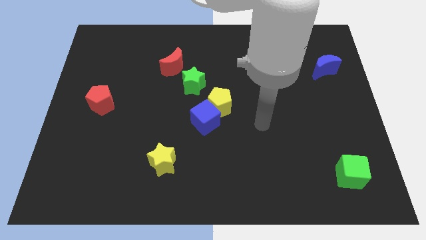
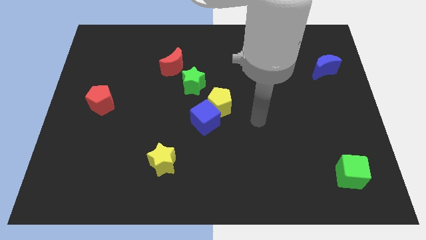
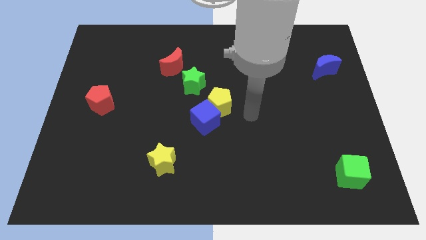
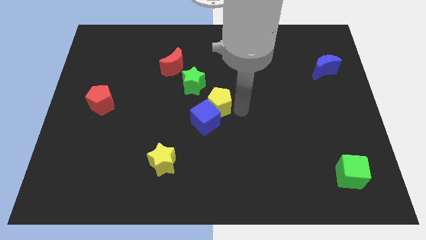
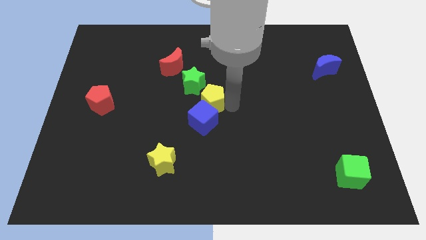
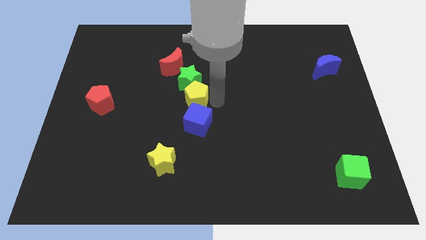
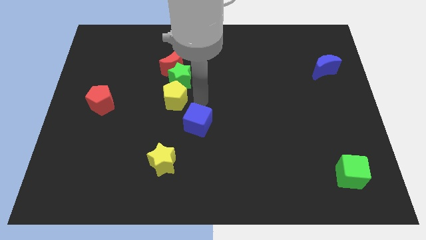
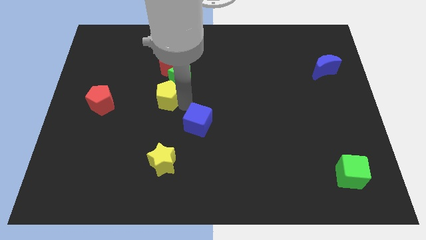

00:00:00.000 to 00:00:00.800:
separate the blue cube from the yellow pentagon

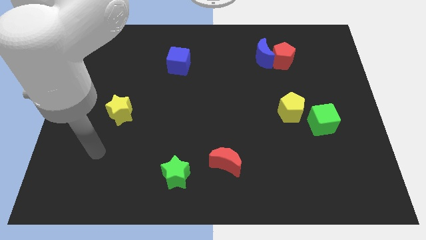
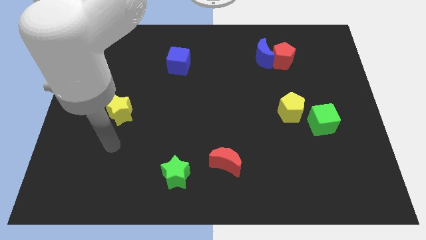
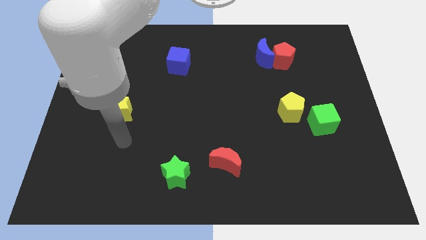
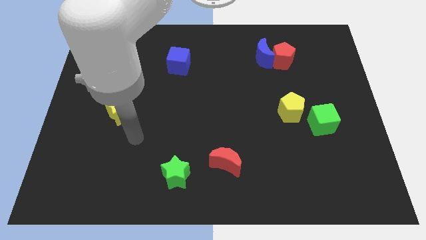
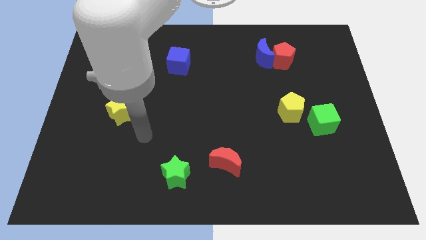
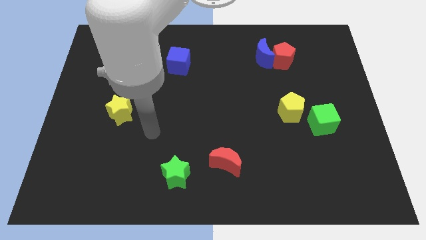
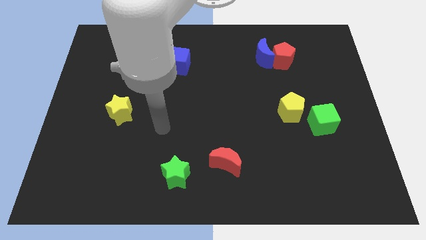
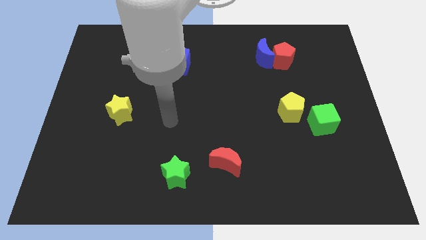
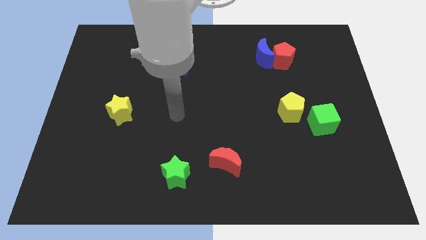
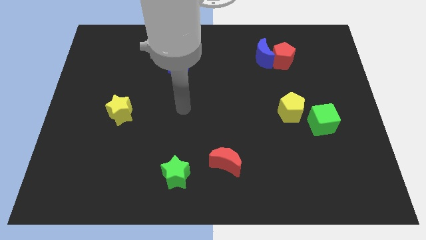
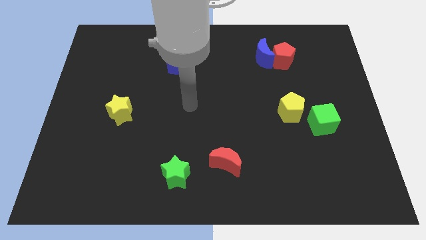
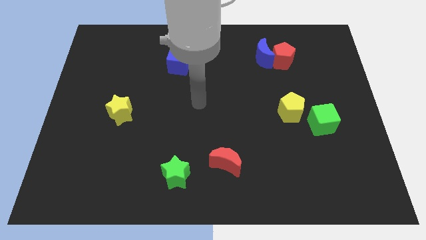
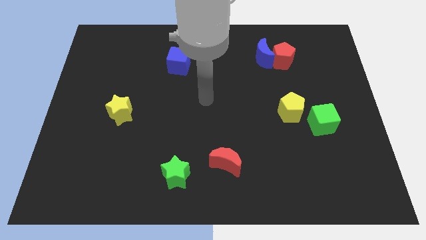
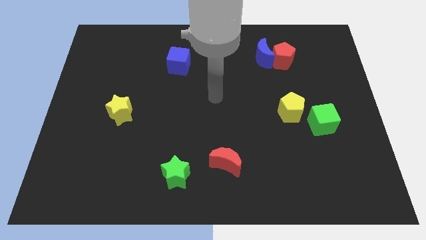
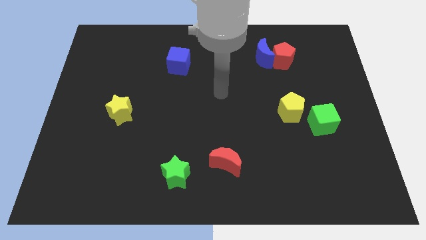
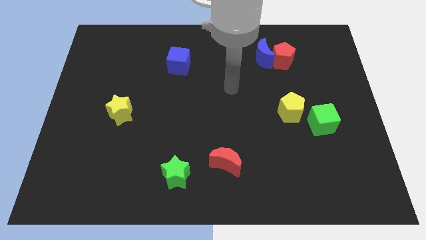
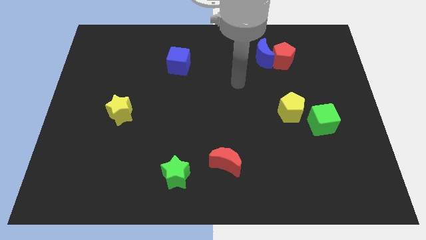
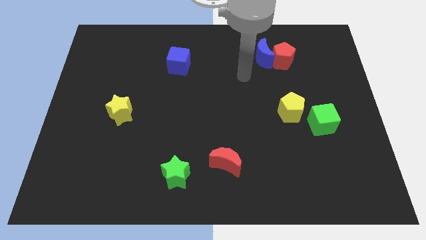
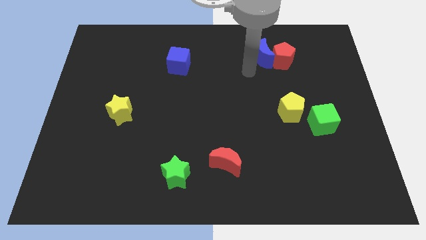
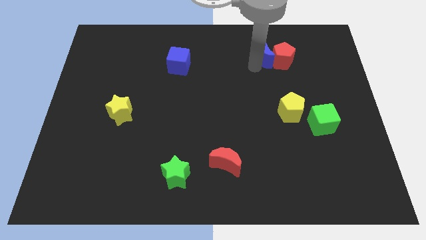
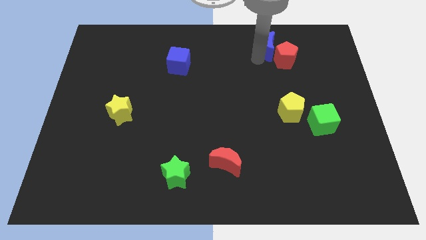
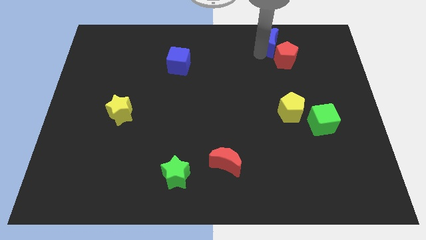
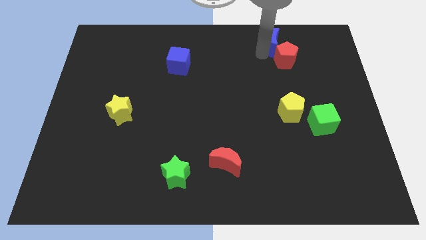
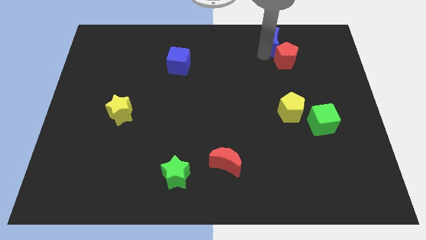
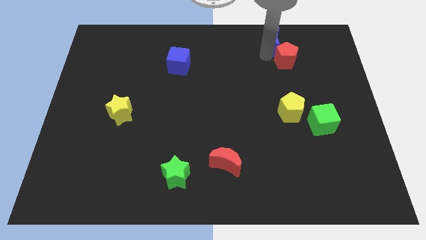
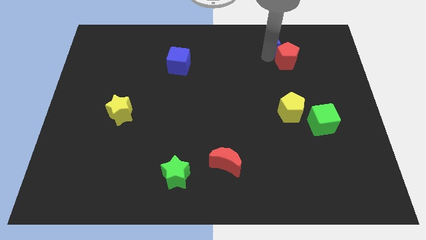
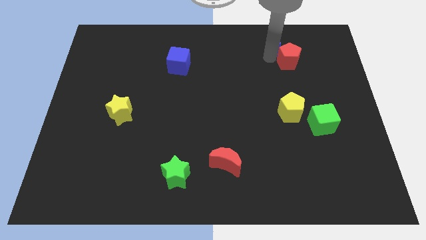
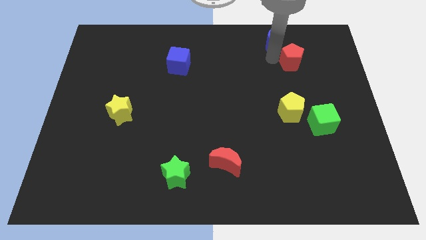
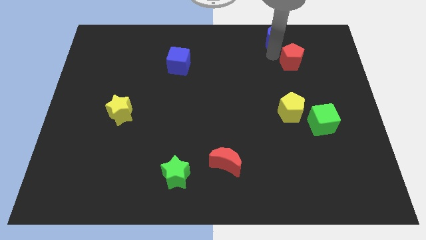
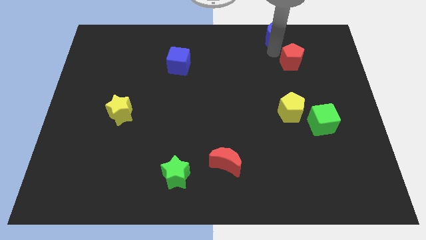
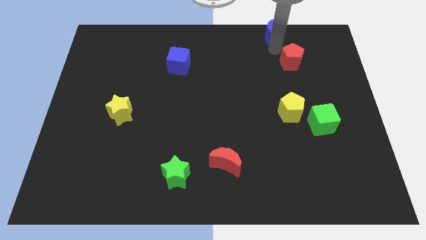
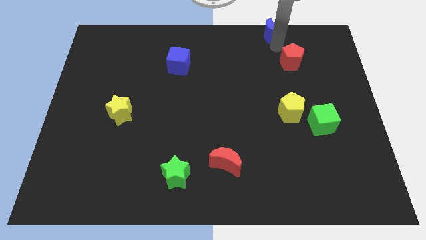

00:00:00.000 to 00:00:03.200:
move the red pentagon away from the blue moon

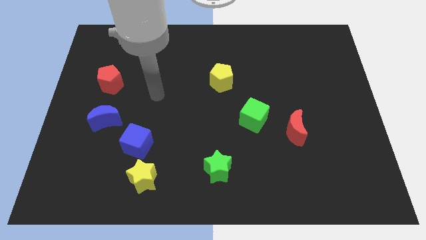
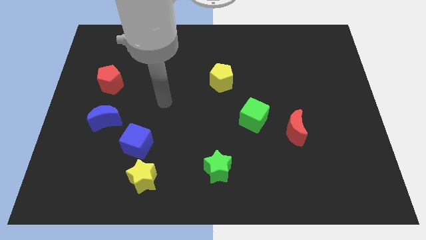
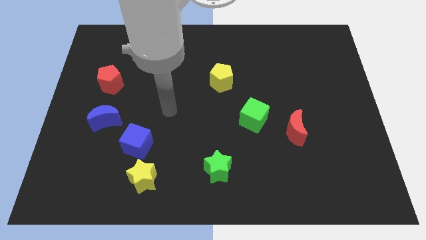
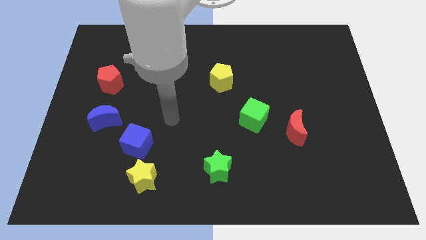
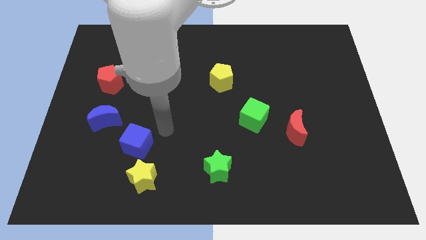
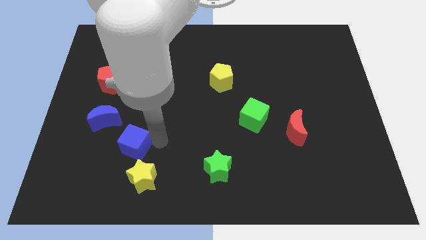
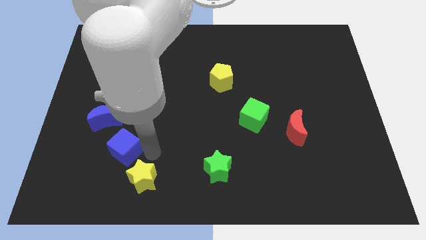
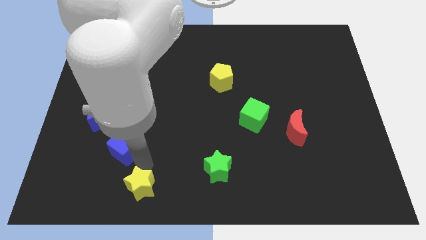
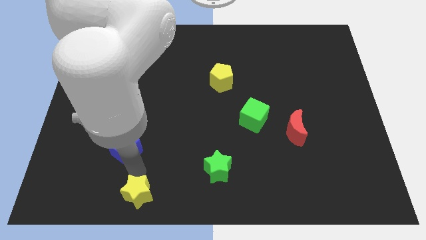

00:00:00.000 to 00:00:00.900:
separate the blue cube from the yellow star

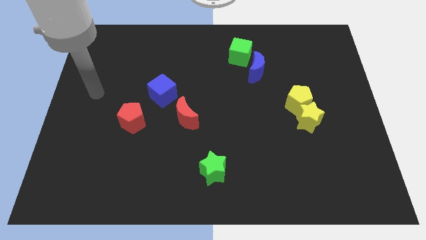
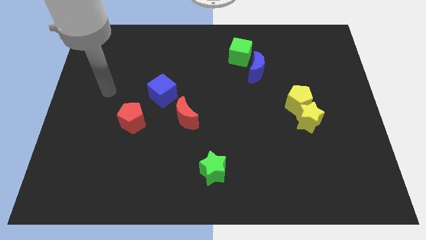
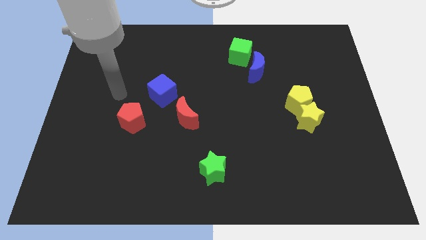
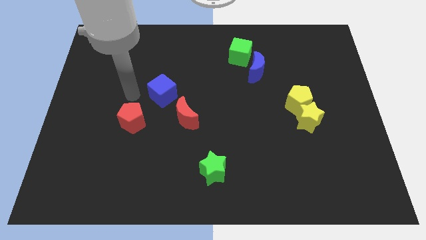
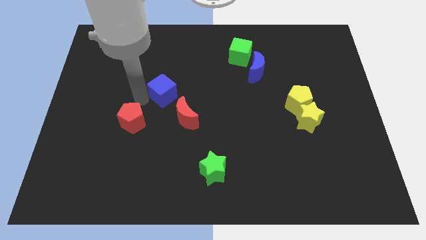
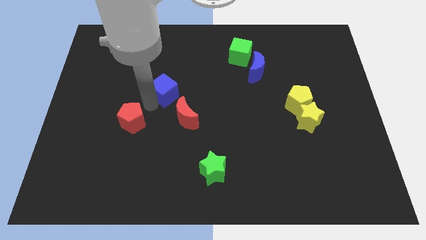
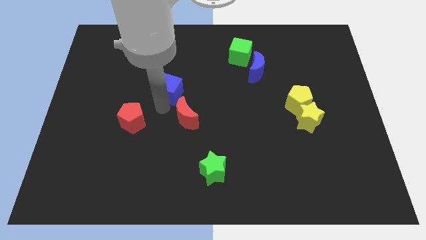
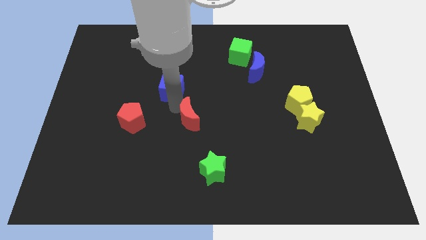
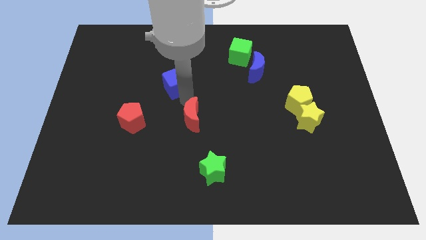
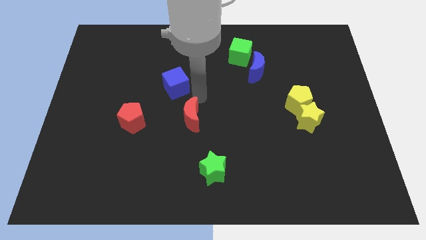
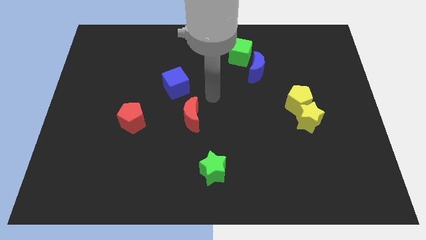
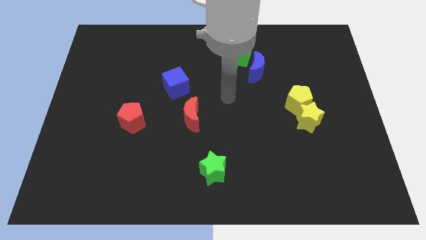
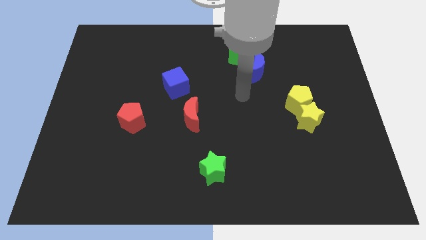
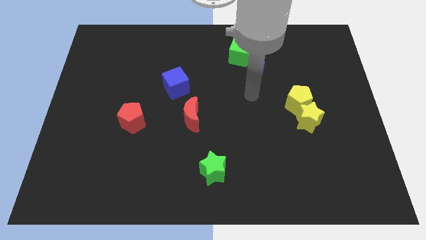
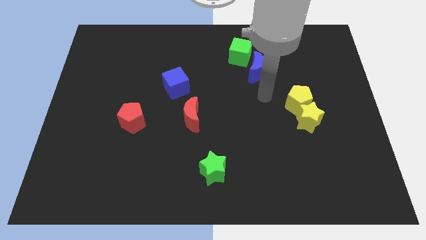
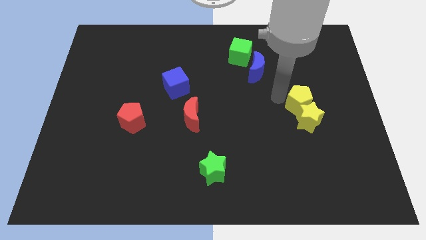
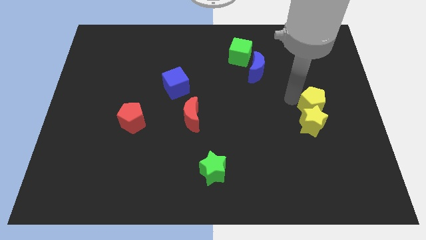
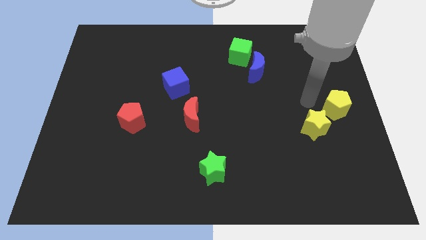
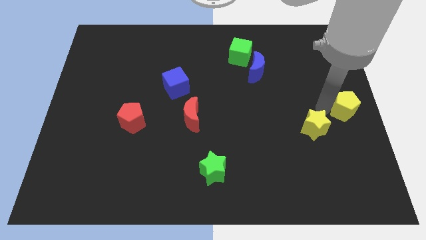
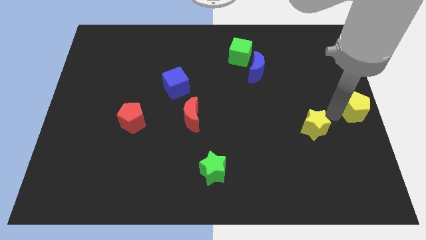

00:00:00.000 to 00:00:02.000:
move the yellow star away from the yellow pentagon

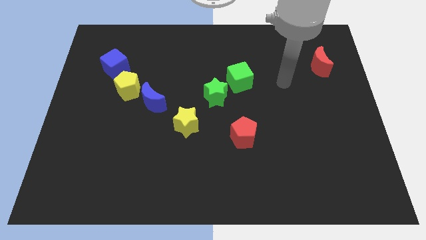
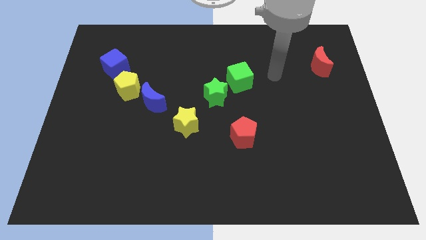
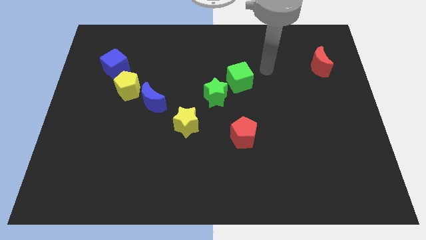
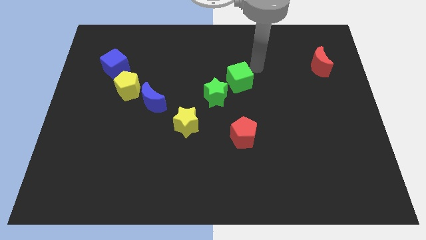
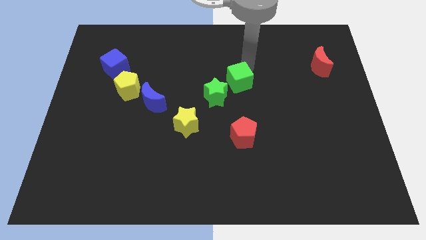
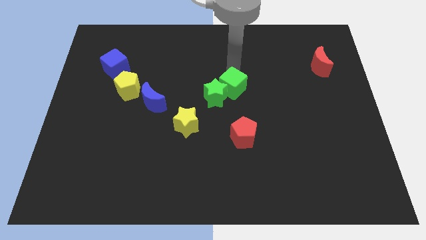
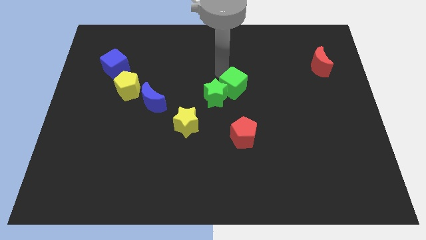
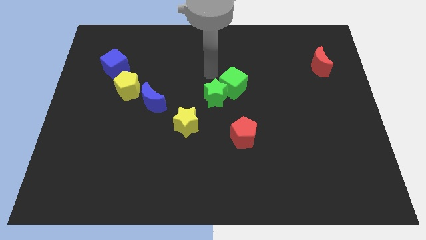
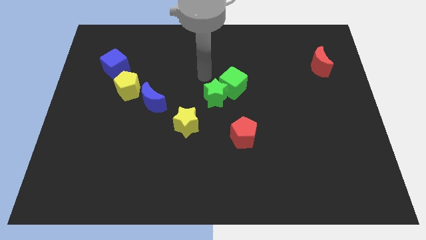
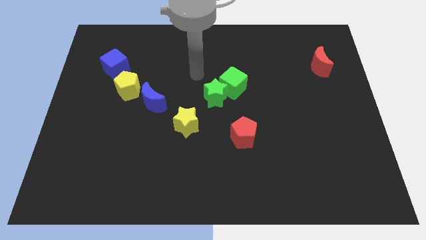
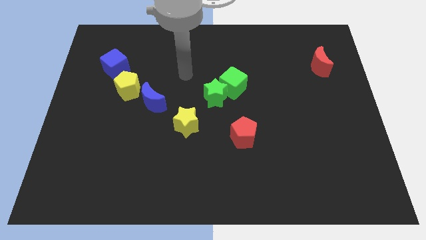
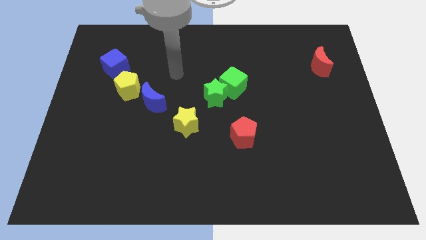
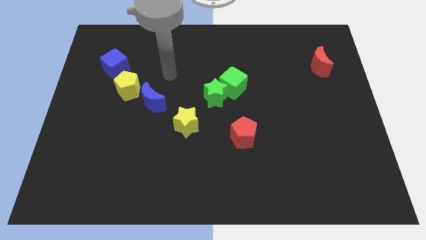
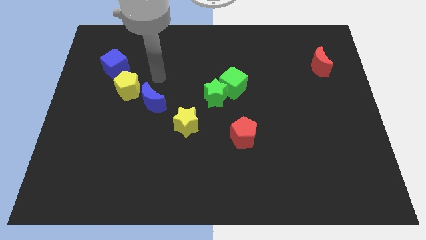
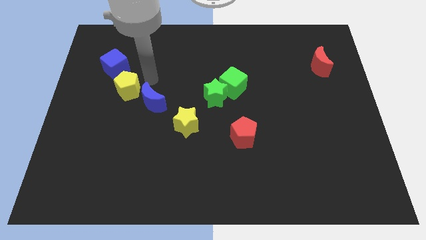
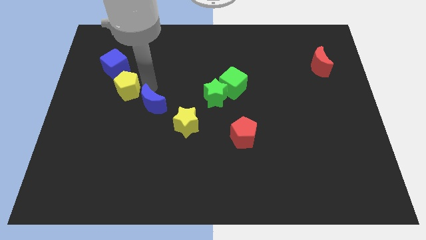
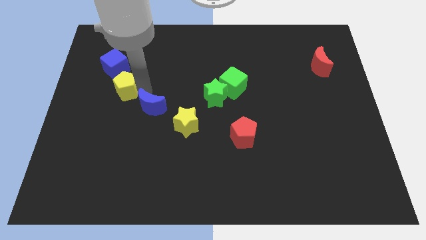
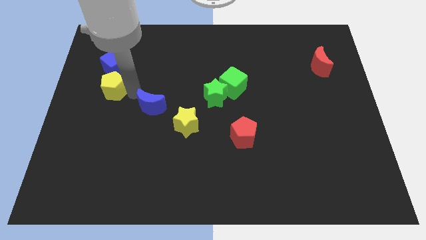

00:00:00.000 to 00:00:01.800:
move the blue moon away from the yellow pentagon

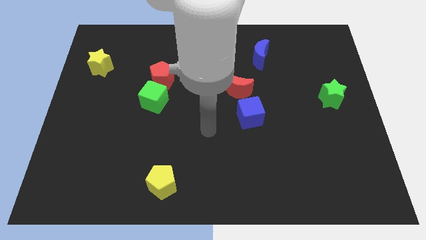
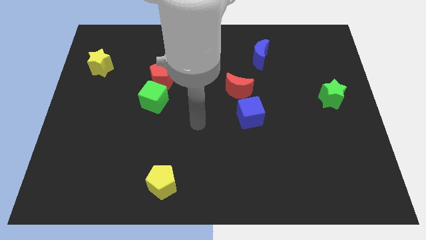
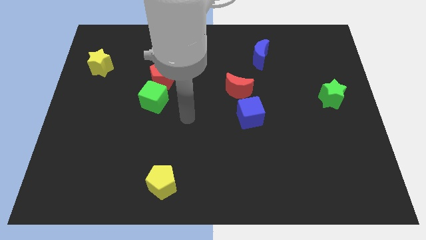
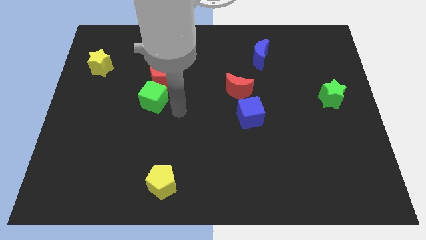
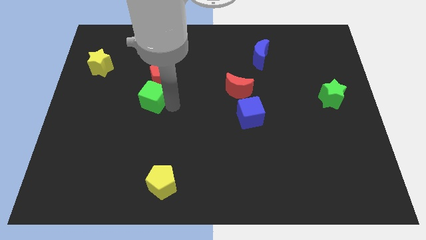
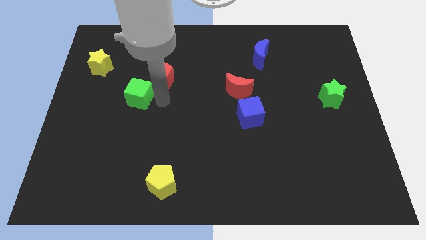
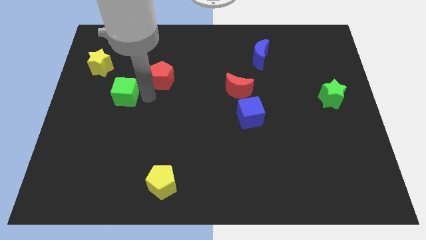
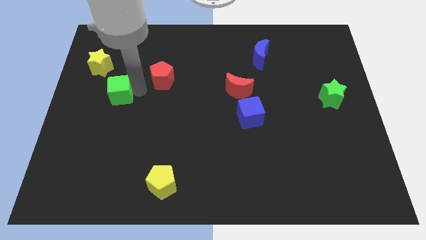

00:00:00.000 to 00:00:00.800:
move the red pentagon away from the green cube
